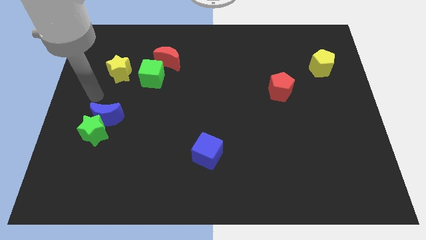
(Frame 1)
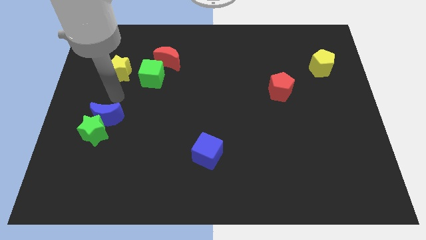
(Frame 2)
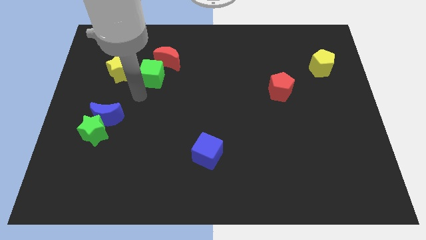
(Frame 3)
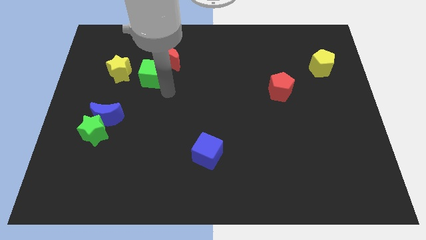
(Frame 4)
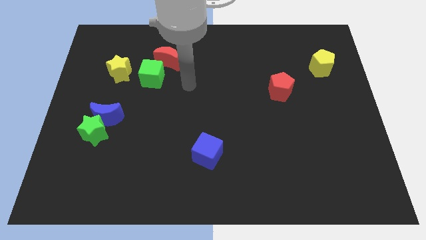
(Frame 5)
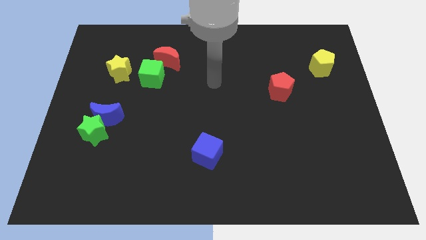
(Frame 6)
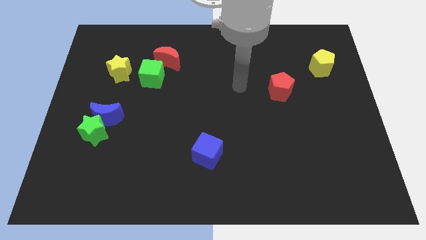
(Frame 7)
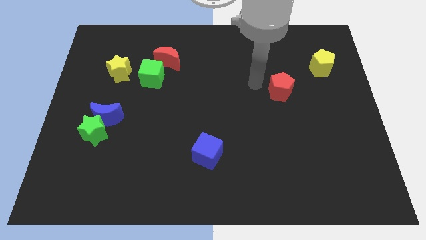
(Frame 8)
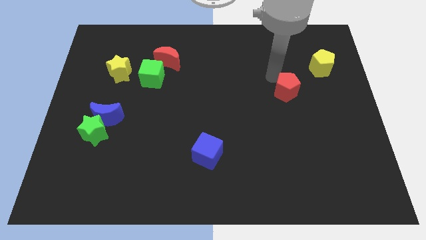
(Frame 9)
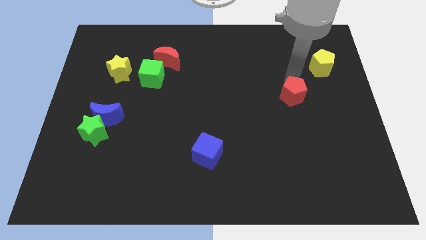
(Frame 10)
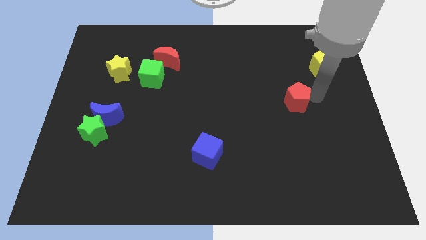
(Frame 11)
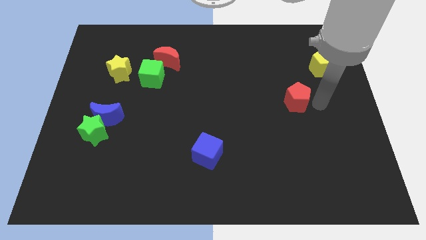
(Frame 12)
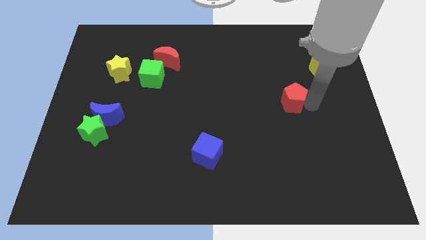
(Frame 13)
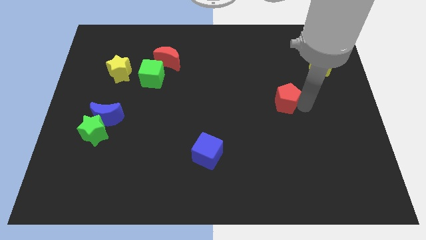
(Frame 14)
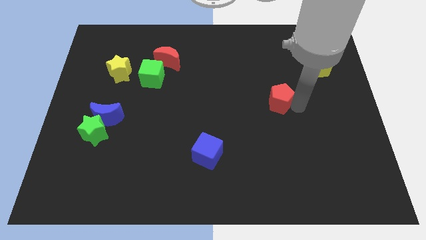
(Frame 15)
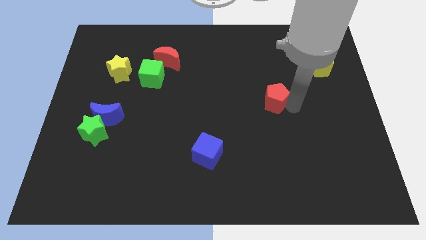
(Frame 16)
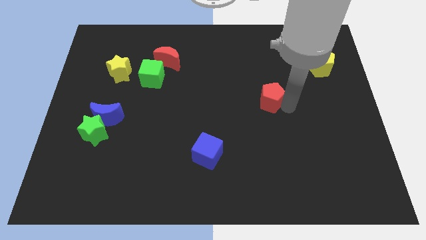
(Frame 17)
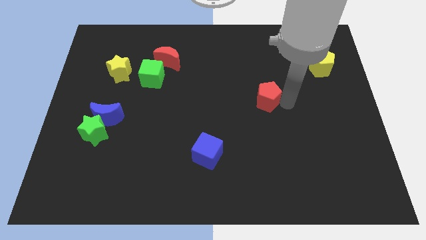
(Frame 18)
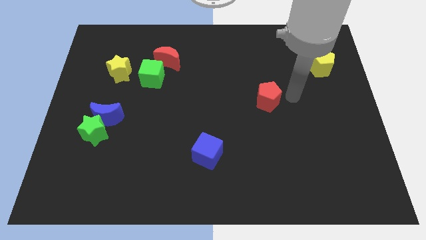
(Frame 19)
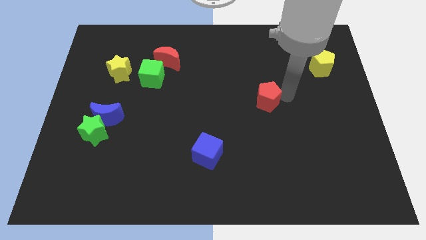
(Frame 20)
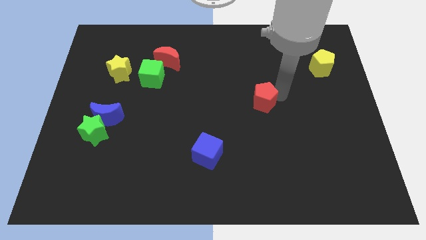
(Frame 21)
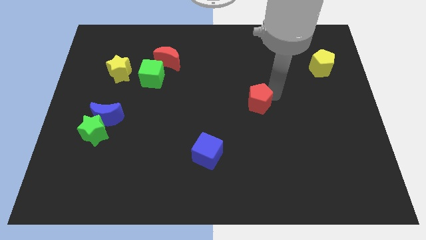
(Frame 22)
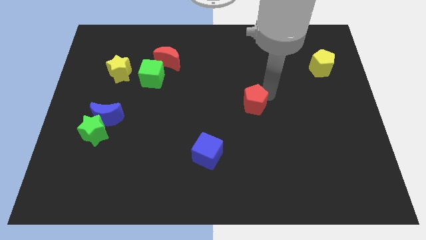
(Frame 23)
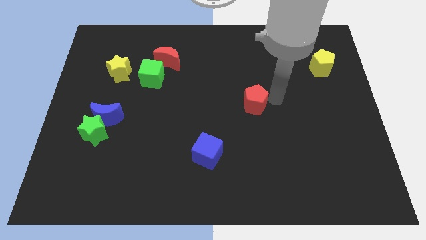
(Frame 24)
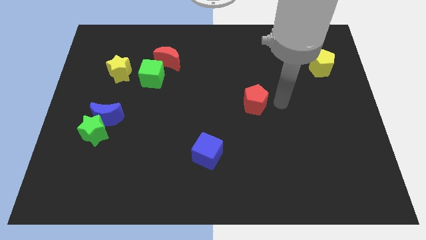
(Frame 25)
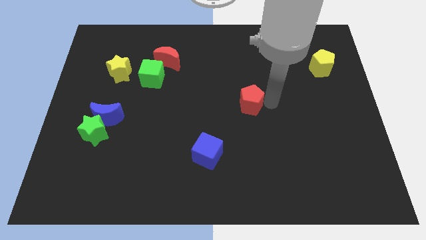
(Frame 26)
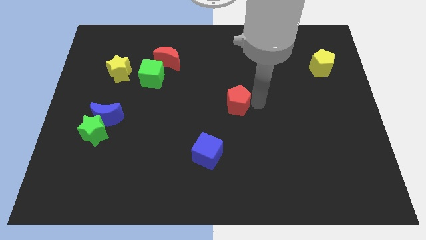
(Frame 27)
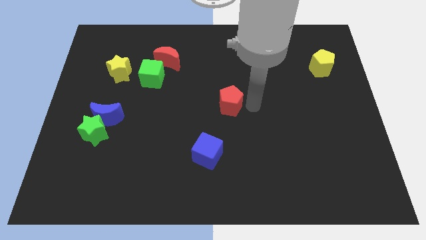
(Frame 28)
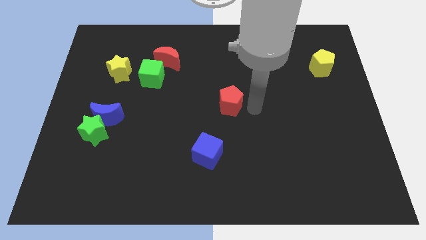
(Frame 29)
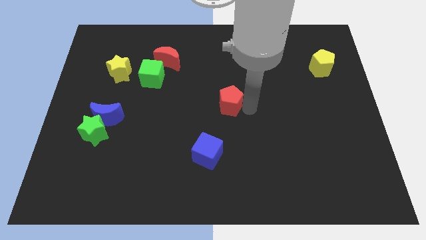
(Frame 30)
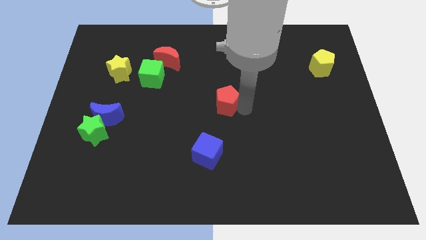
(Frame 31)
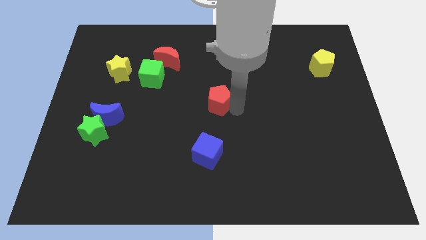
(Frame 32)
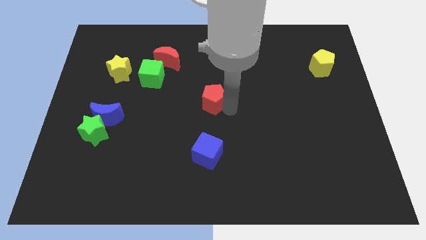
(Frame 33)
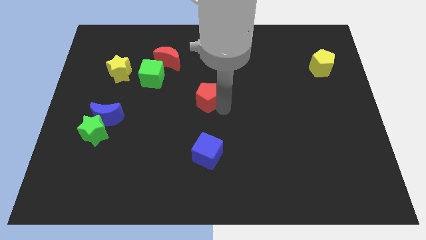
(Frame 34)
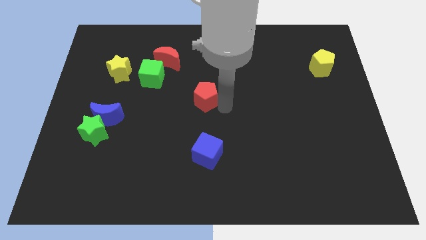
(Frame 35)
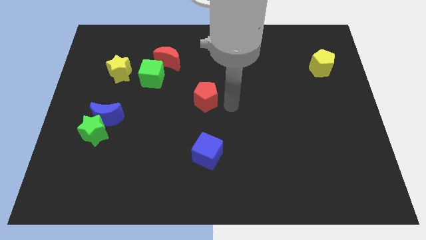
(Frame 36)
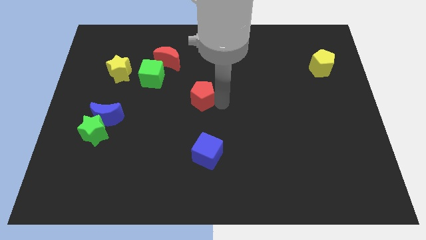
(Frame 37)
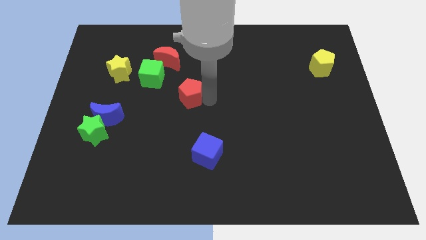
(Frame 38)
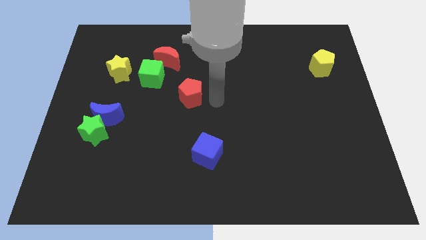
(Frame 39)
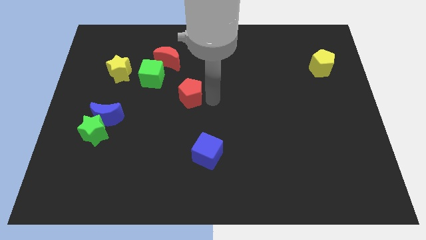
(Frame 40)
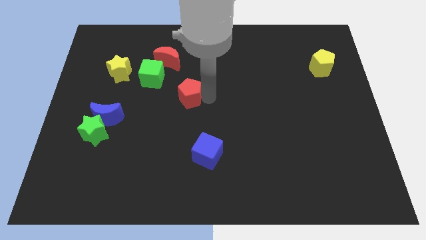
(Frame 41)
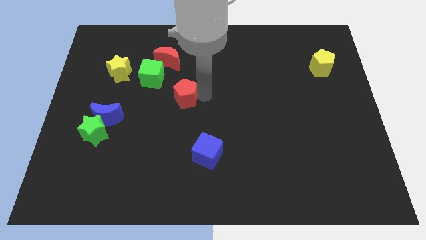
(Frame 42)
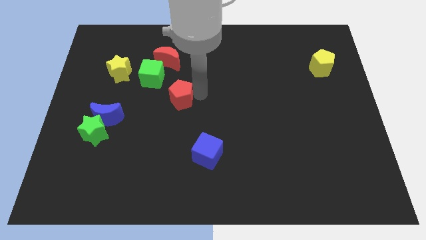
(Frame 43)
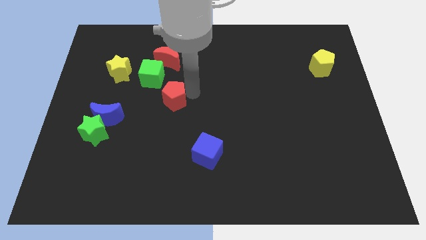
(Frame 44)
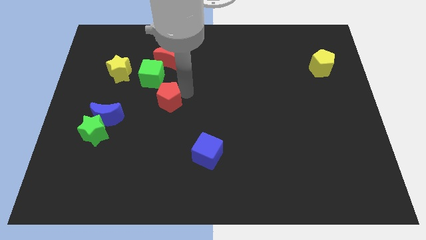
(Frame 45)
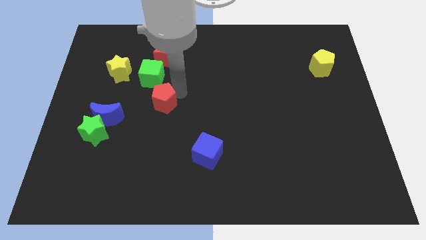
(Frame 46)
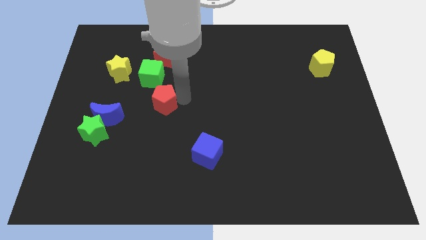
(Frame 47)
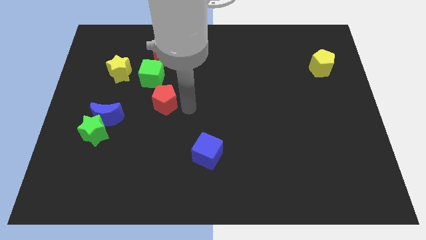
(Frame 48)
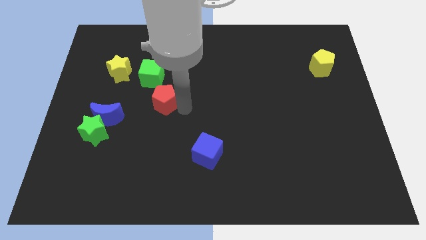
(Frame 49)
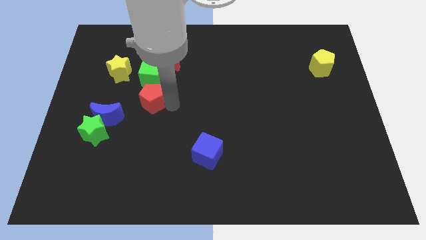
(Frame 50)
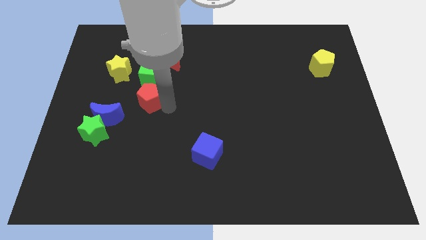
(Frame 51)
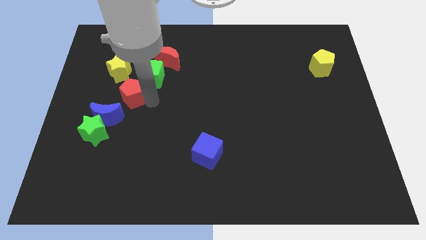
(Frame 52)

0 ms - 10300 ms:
put the red pentagon to the top side of the blue moon

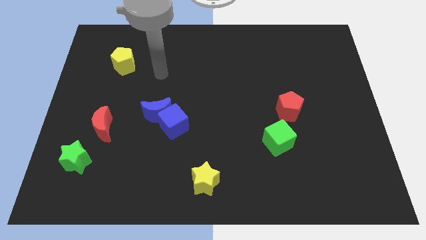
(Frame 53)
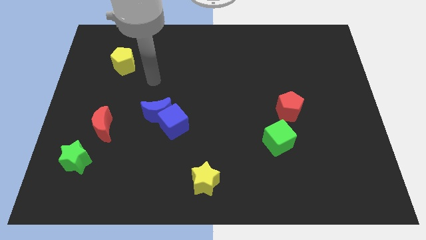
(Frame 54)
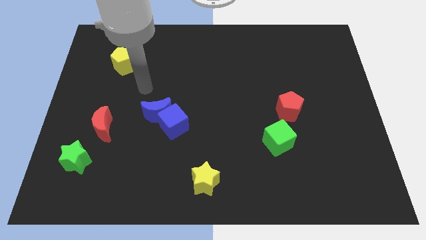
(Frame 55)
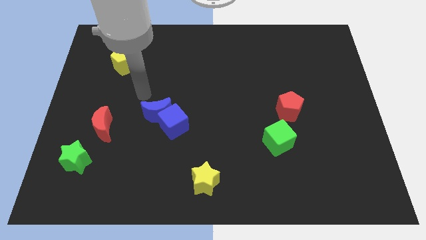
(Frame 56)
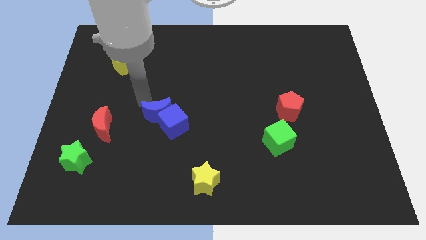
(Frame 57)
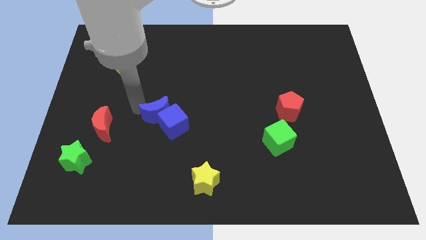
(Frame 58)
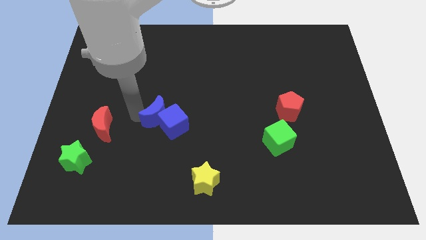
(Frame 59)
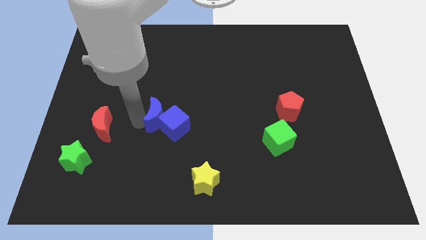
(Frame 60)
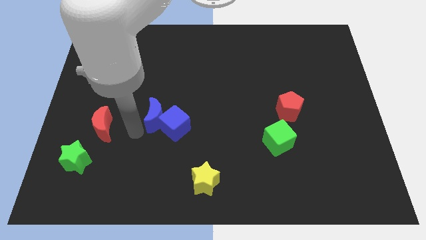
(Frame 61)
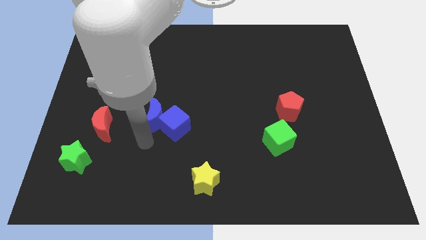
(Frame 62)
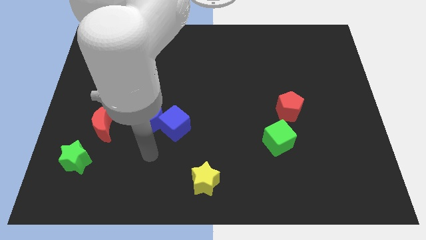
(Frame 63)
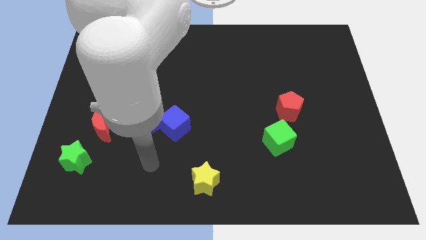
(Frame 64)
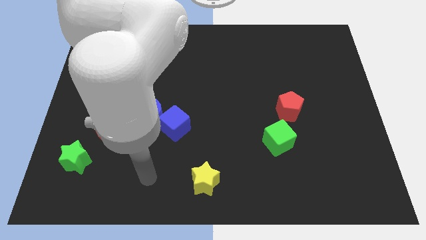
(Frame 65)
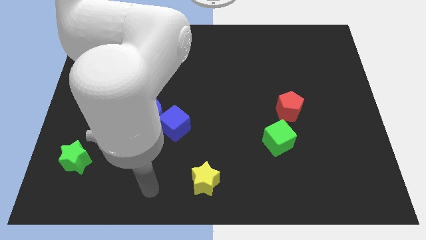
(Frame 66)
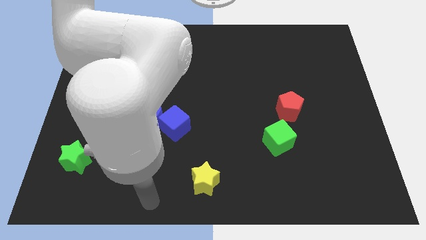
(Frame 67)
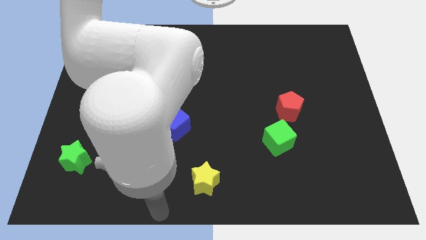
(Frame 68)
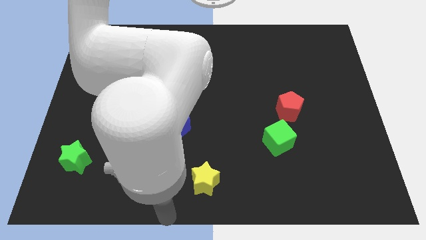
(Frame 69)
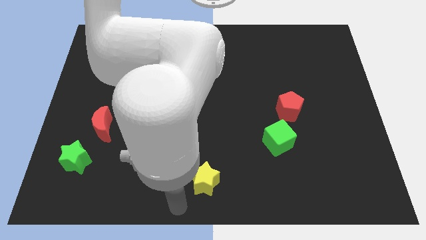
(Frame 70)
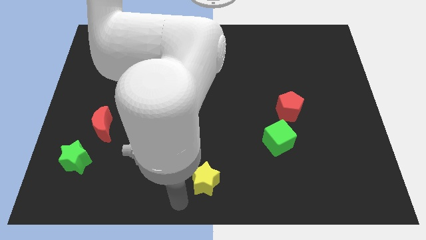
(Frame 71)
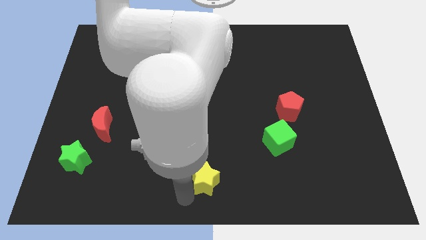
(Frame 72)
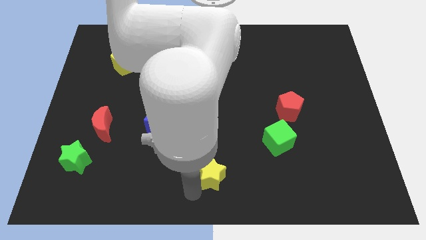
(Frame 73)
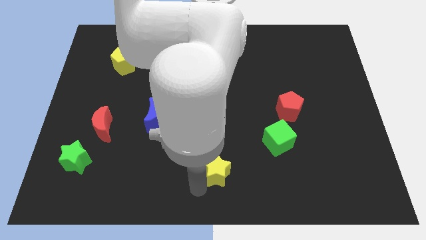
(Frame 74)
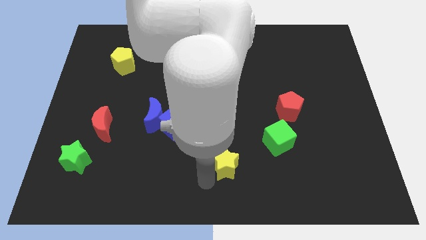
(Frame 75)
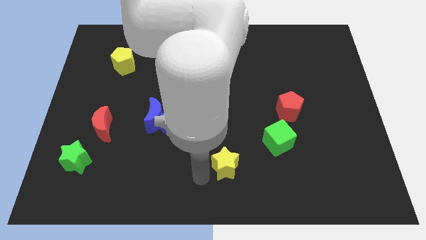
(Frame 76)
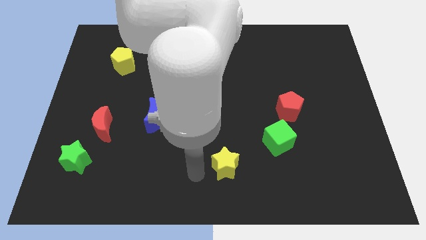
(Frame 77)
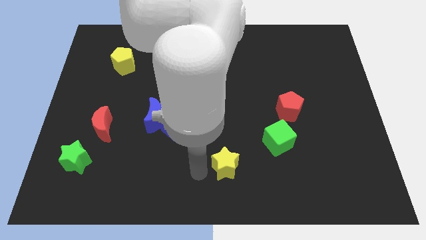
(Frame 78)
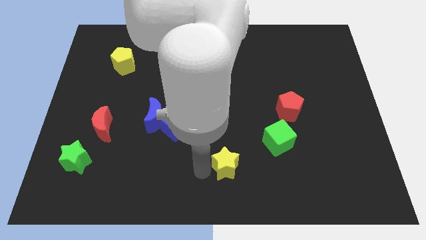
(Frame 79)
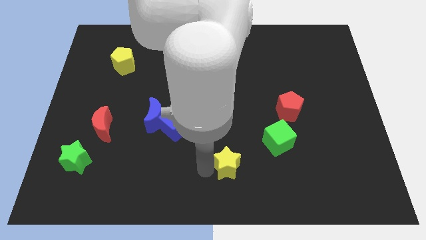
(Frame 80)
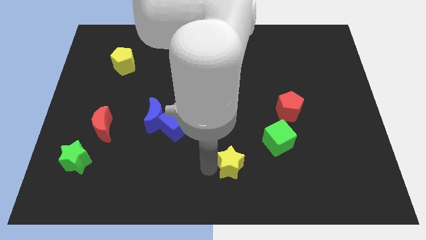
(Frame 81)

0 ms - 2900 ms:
slide the yellow star diagonally down and to the left of the green cube
